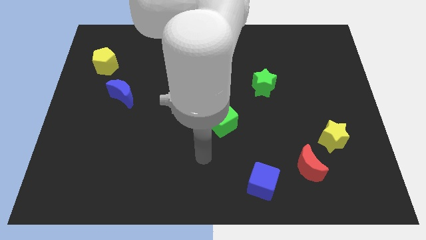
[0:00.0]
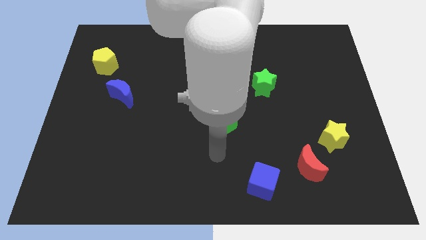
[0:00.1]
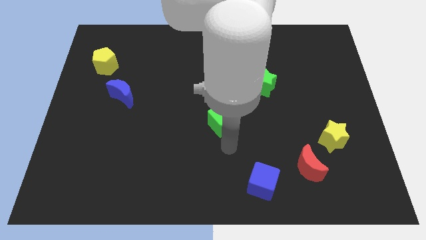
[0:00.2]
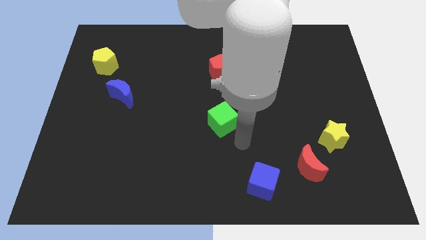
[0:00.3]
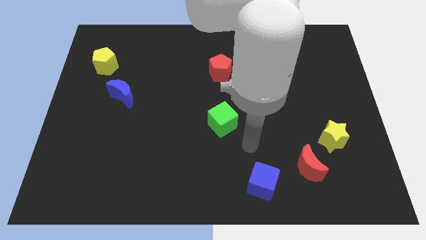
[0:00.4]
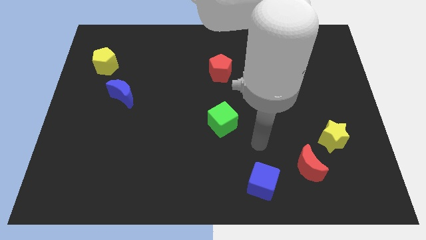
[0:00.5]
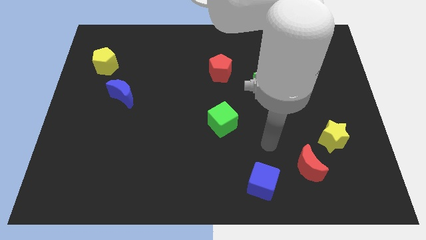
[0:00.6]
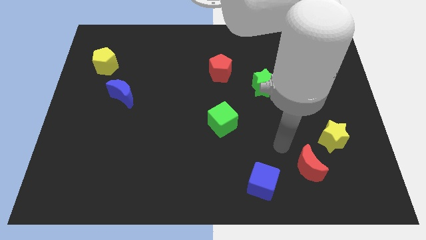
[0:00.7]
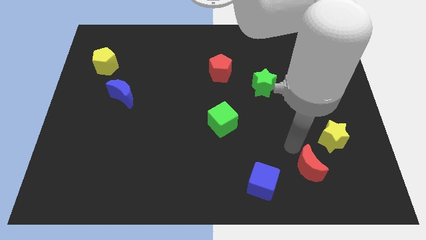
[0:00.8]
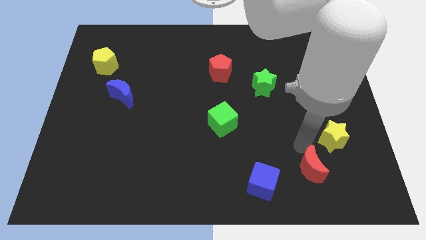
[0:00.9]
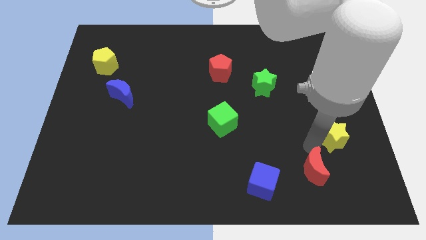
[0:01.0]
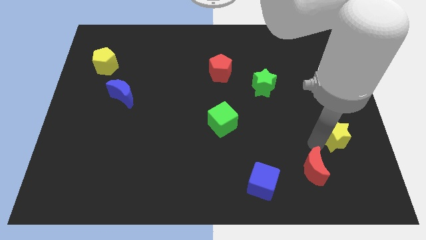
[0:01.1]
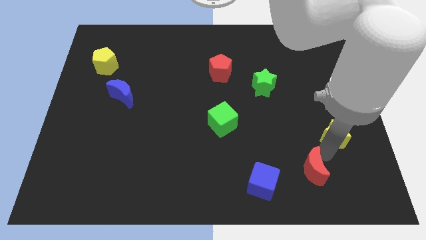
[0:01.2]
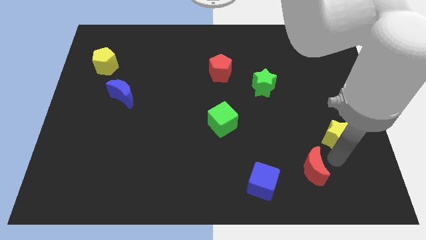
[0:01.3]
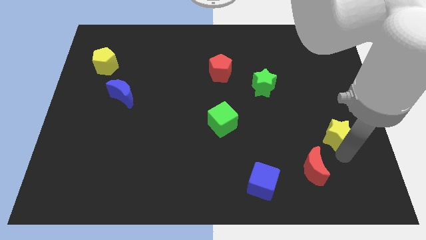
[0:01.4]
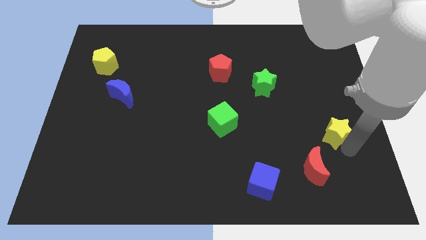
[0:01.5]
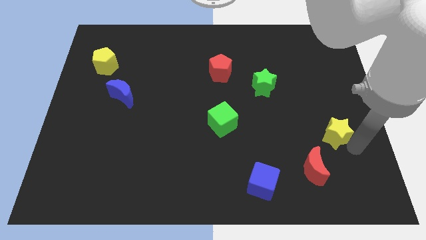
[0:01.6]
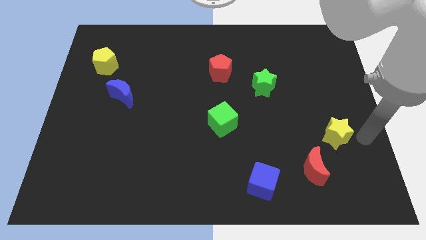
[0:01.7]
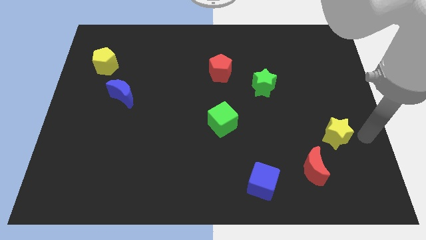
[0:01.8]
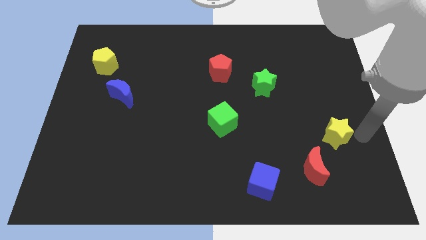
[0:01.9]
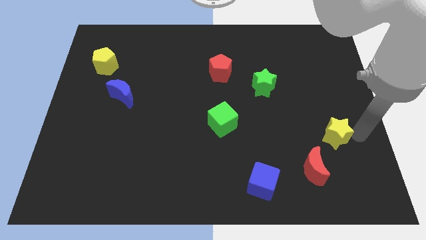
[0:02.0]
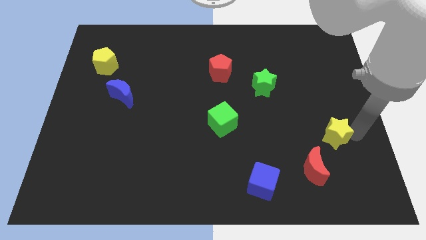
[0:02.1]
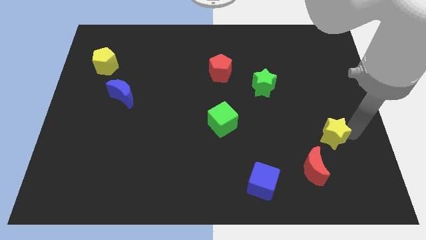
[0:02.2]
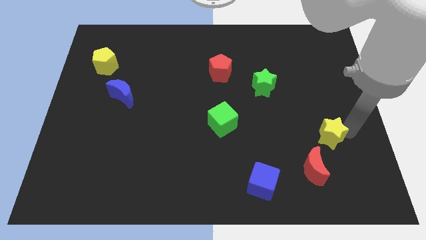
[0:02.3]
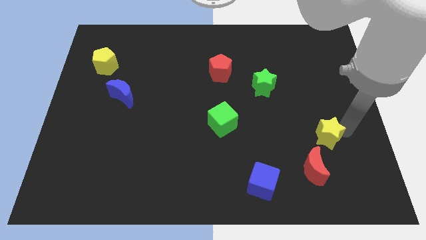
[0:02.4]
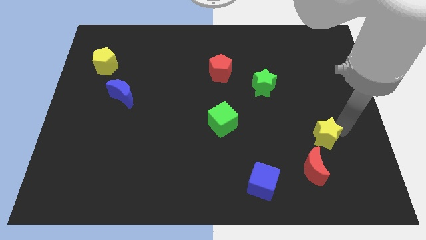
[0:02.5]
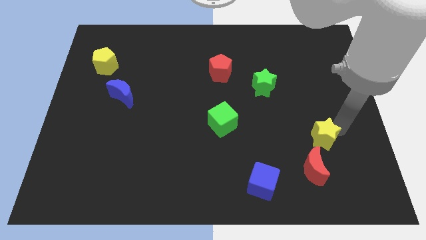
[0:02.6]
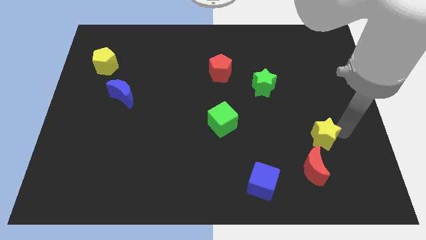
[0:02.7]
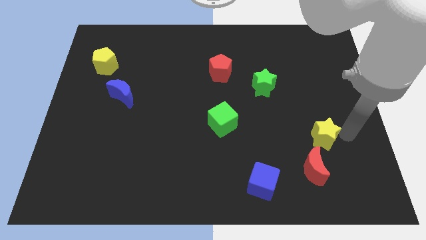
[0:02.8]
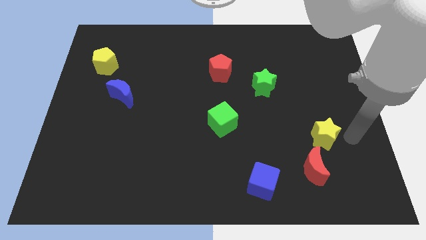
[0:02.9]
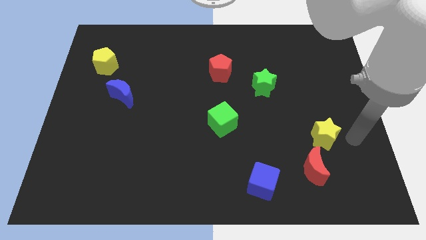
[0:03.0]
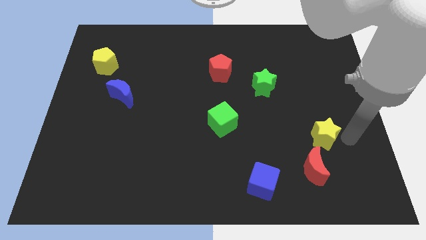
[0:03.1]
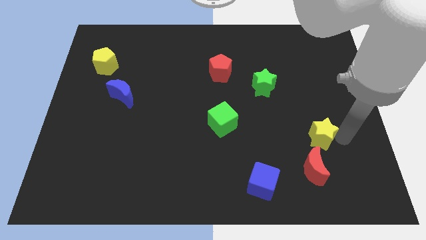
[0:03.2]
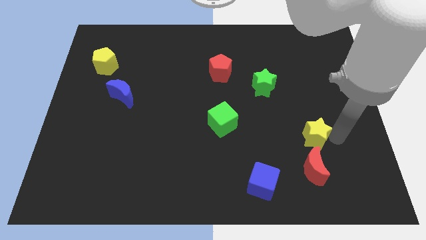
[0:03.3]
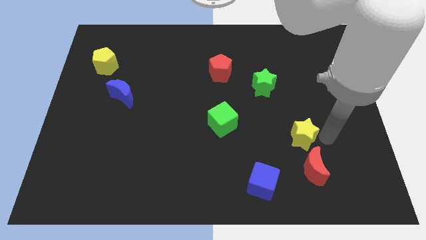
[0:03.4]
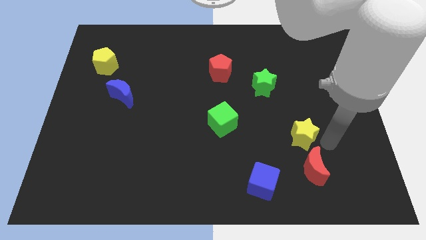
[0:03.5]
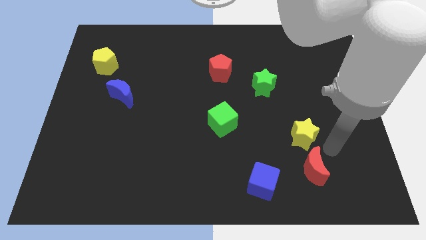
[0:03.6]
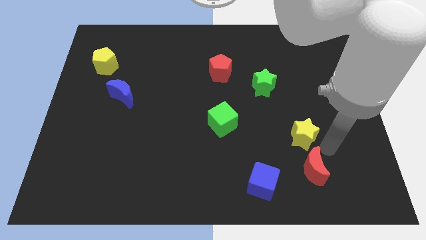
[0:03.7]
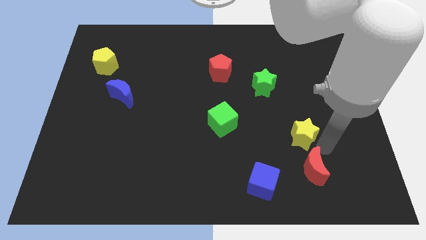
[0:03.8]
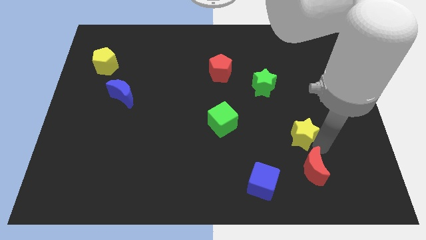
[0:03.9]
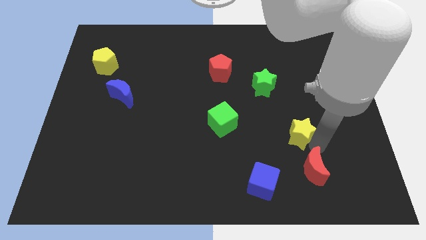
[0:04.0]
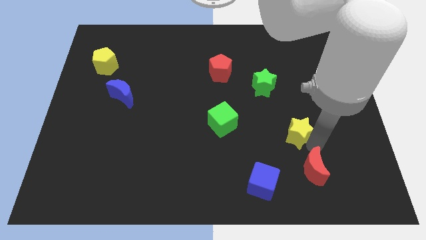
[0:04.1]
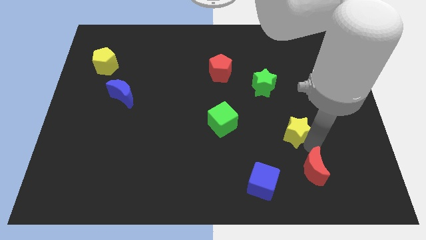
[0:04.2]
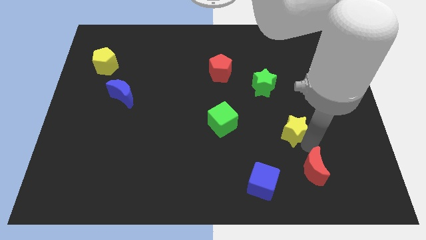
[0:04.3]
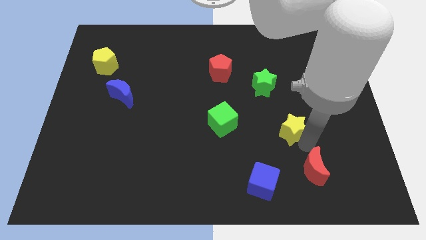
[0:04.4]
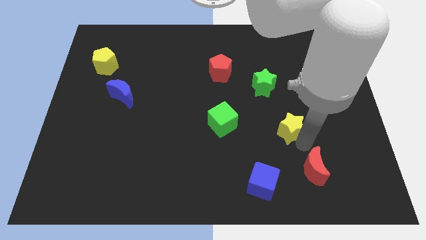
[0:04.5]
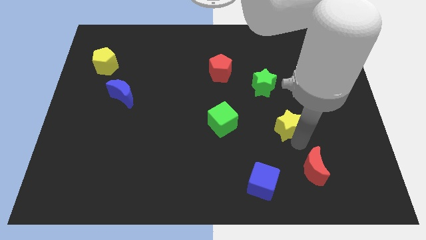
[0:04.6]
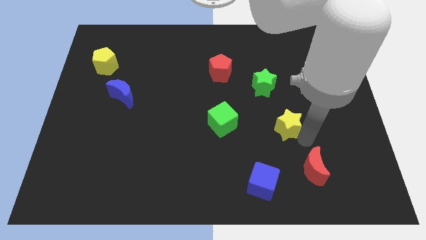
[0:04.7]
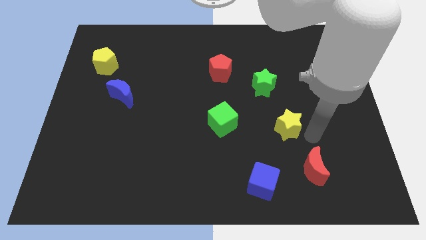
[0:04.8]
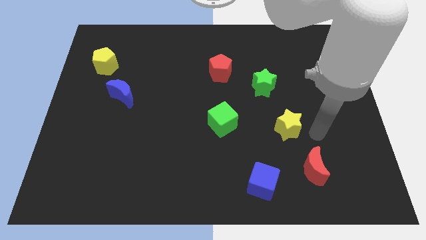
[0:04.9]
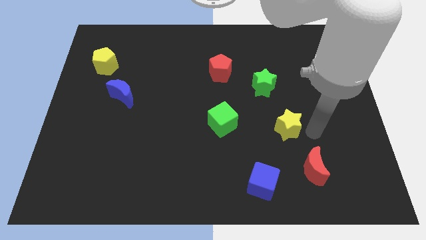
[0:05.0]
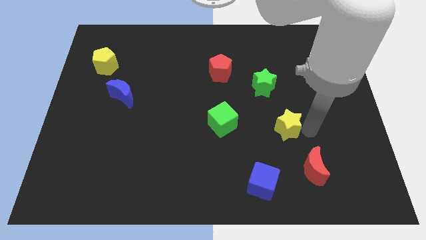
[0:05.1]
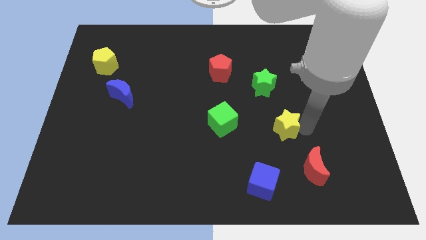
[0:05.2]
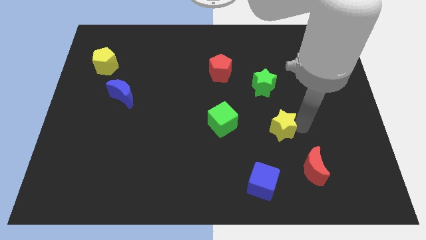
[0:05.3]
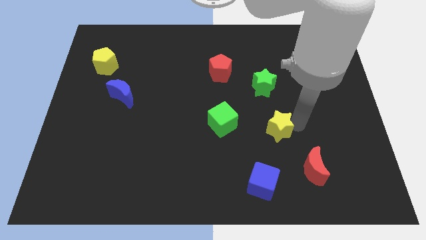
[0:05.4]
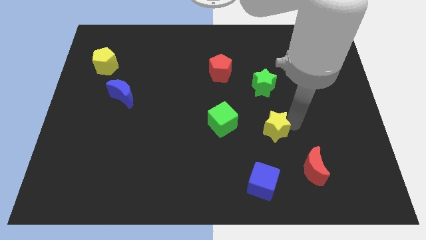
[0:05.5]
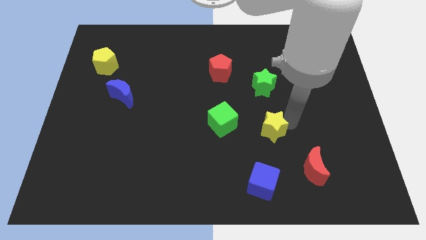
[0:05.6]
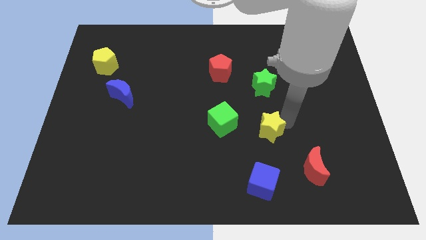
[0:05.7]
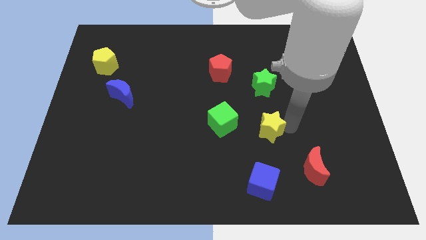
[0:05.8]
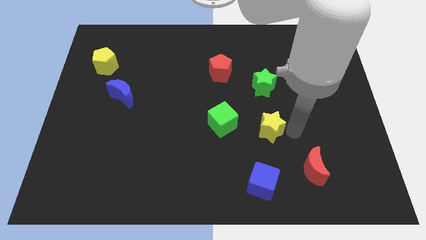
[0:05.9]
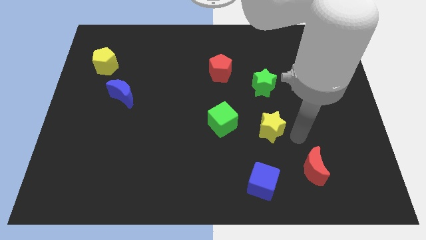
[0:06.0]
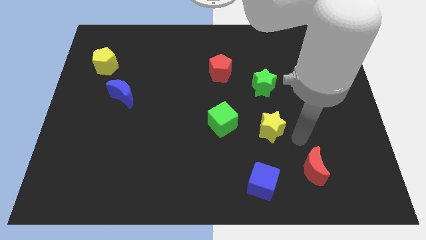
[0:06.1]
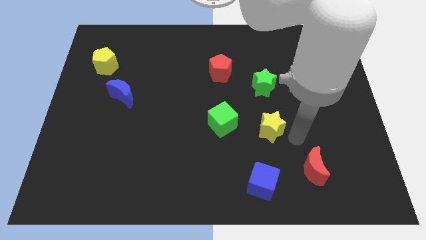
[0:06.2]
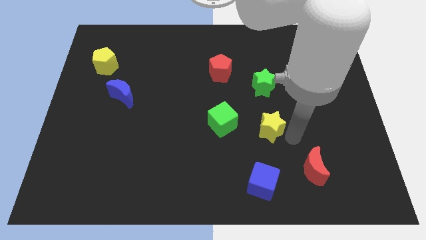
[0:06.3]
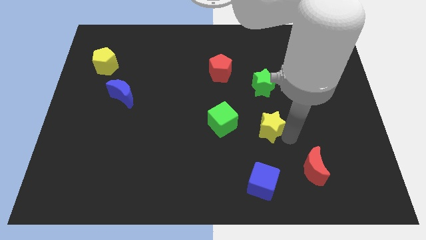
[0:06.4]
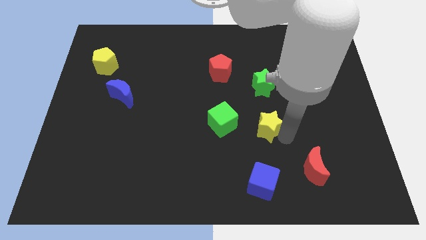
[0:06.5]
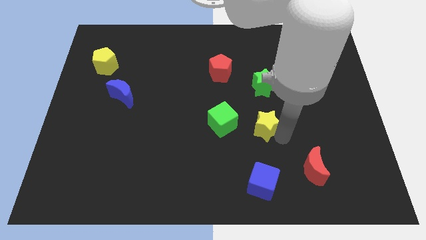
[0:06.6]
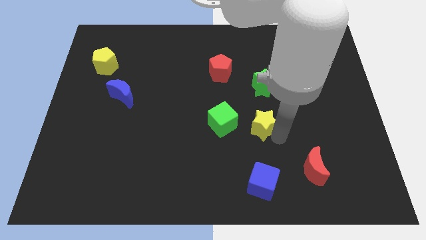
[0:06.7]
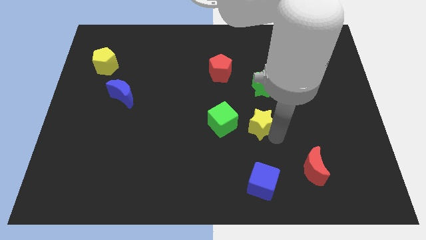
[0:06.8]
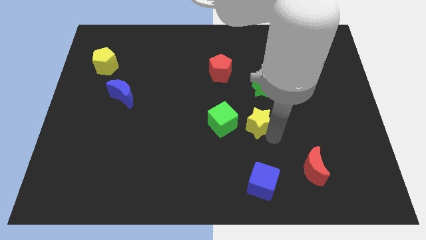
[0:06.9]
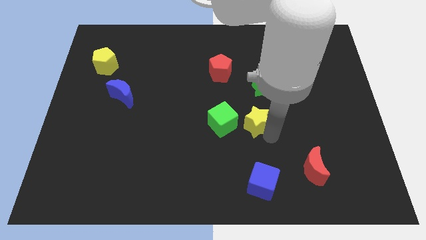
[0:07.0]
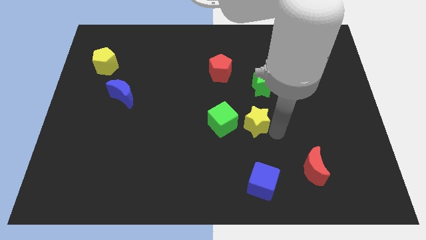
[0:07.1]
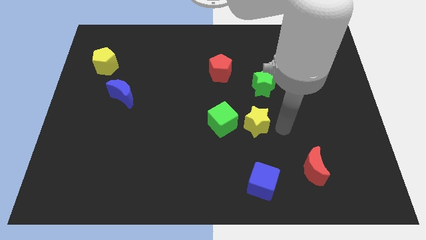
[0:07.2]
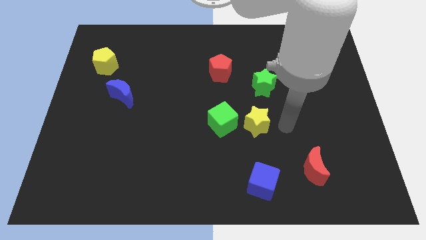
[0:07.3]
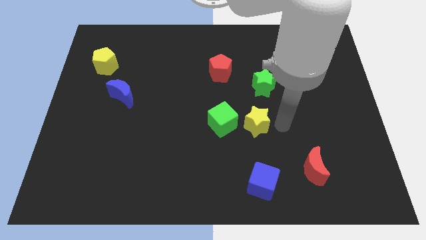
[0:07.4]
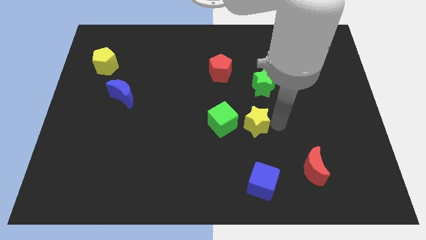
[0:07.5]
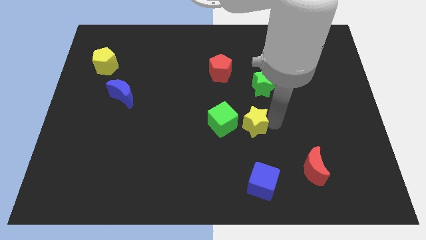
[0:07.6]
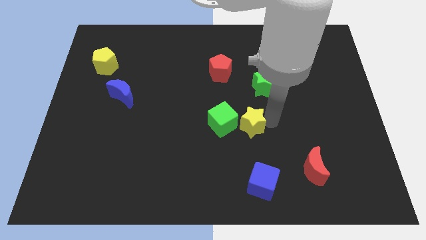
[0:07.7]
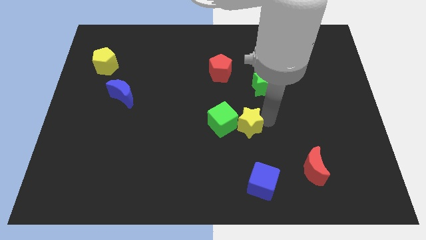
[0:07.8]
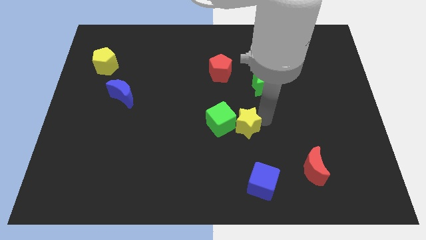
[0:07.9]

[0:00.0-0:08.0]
put the yellow star towards the green cube
